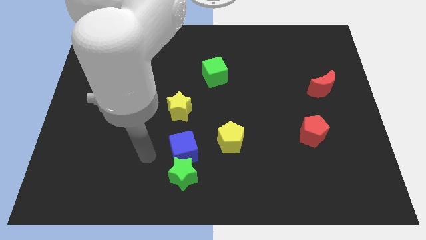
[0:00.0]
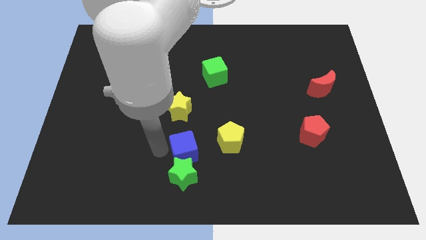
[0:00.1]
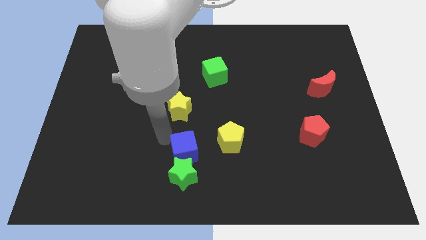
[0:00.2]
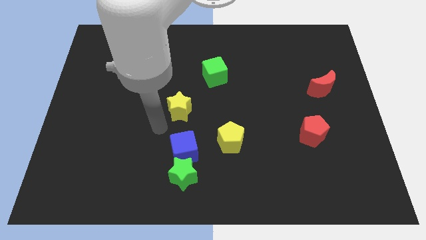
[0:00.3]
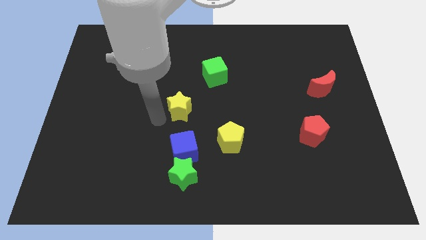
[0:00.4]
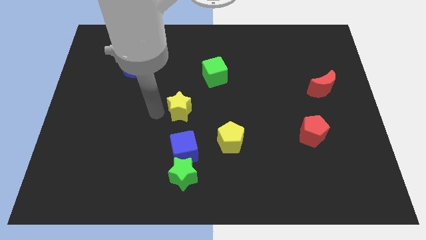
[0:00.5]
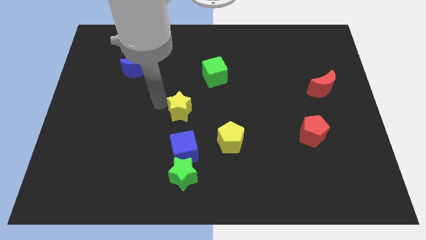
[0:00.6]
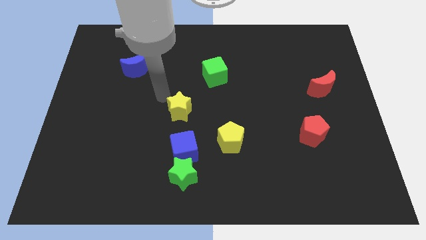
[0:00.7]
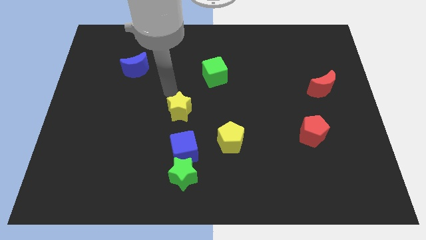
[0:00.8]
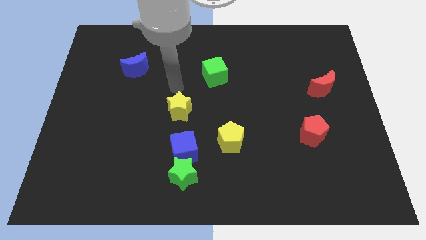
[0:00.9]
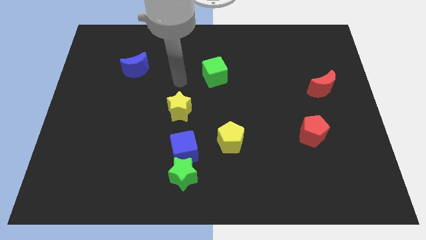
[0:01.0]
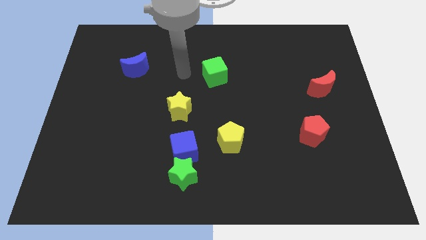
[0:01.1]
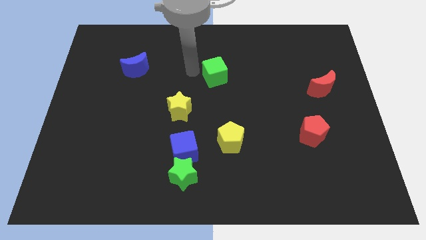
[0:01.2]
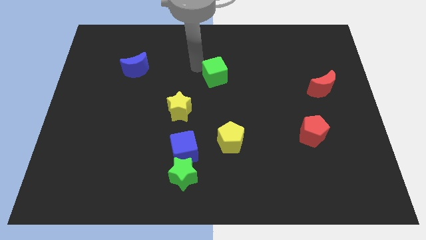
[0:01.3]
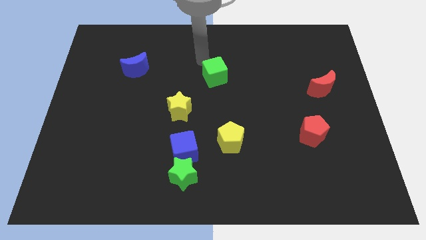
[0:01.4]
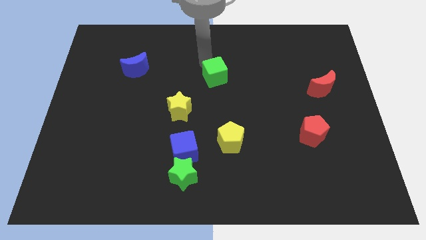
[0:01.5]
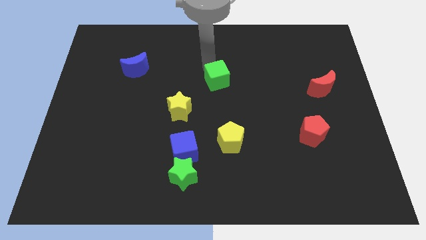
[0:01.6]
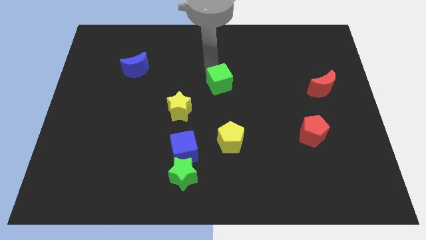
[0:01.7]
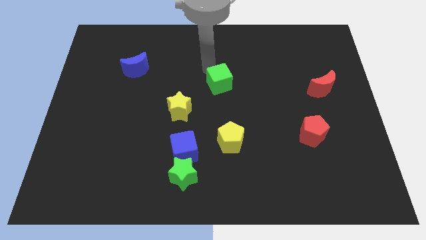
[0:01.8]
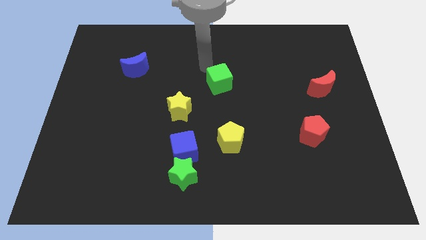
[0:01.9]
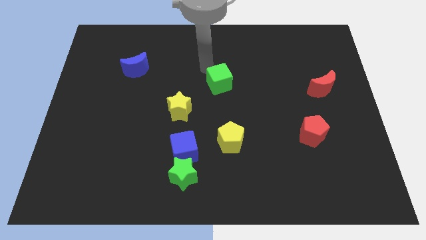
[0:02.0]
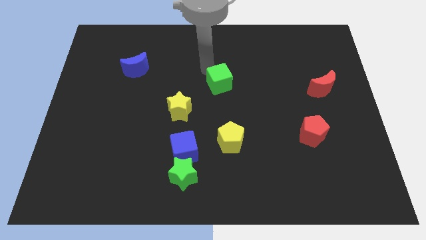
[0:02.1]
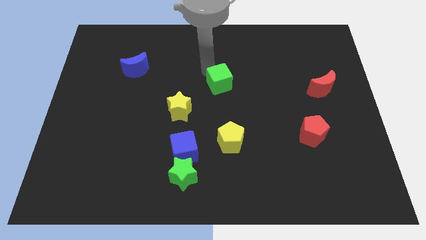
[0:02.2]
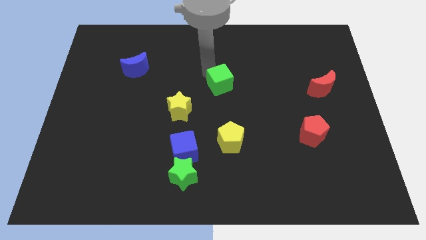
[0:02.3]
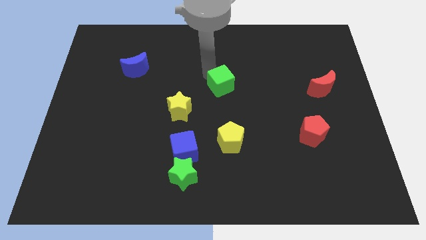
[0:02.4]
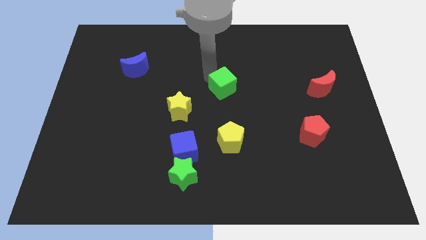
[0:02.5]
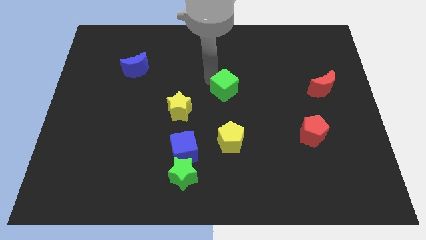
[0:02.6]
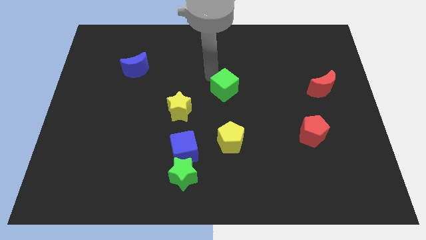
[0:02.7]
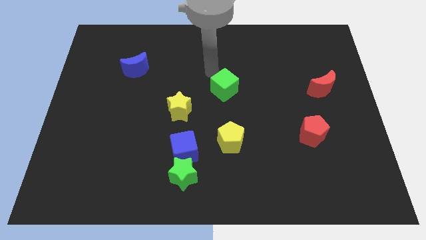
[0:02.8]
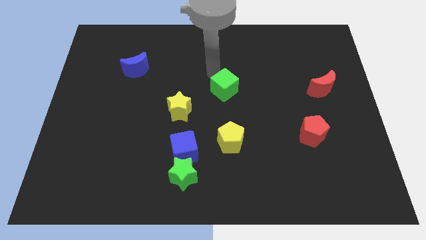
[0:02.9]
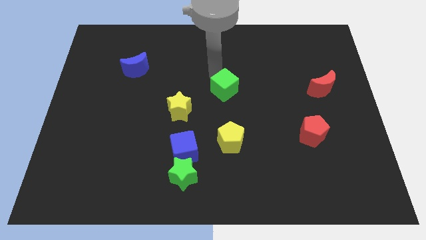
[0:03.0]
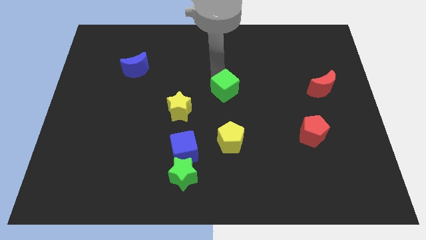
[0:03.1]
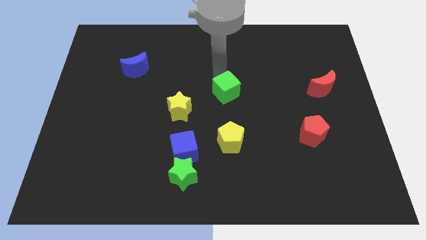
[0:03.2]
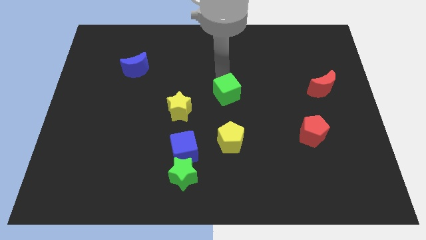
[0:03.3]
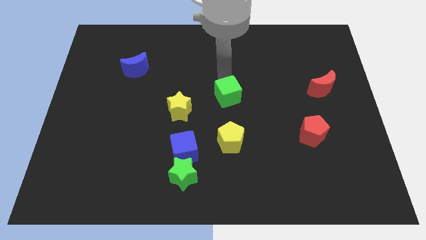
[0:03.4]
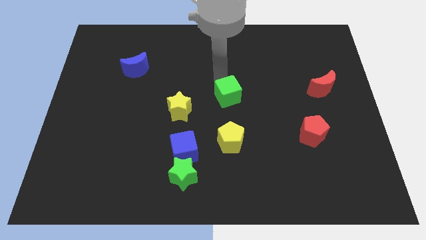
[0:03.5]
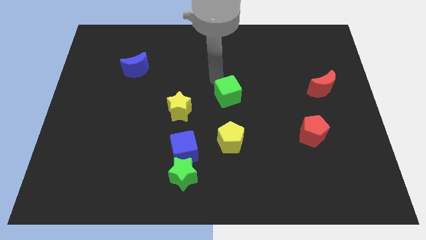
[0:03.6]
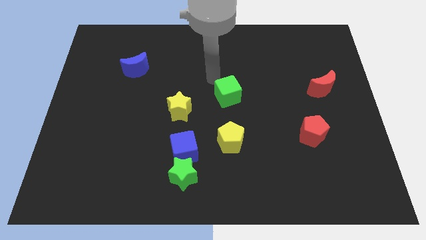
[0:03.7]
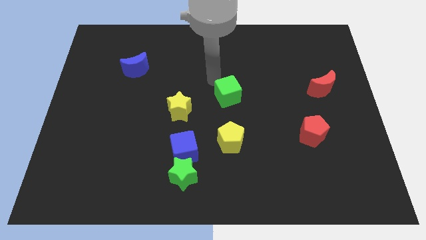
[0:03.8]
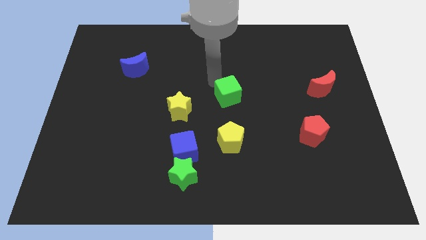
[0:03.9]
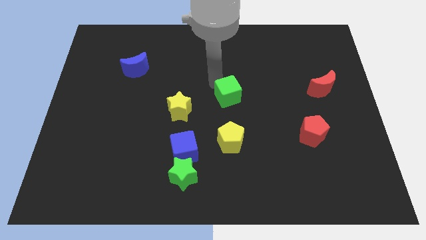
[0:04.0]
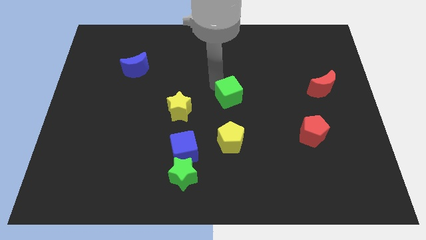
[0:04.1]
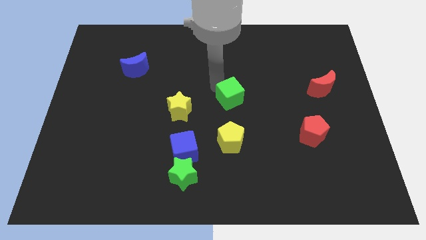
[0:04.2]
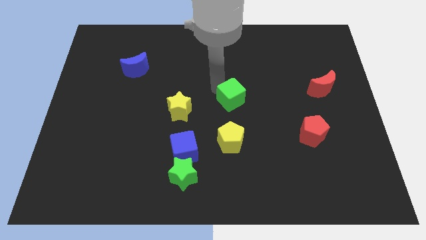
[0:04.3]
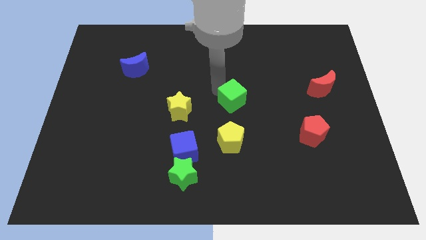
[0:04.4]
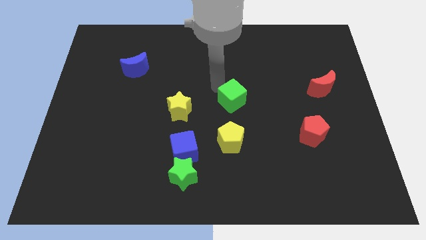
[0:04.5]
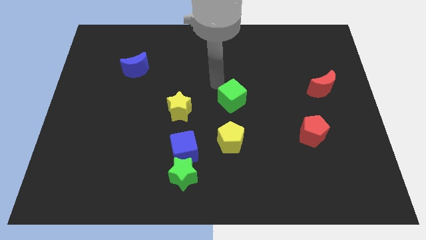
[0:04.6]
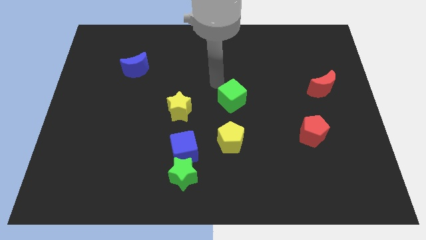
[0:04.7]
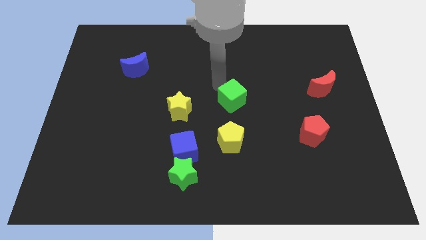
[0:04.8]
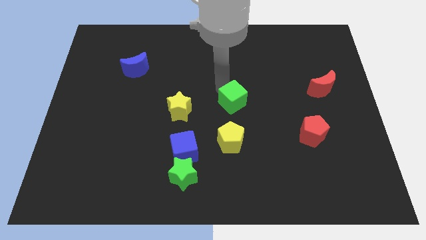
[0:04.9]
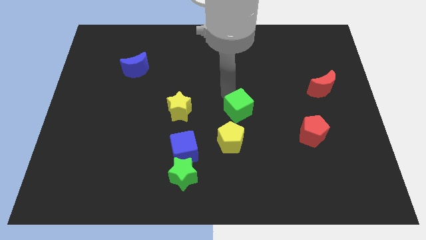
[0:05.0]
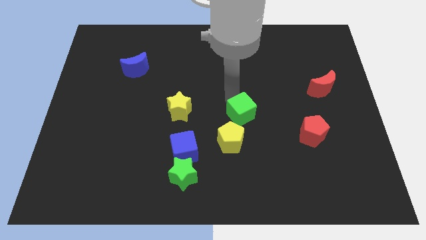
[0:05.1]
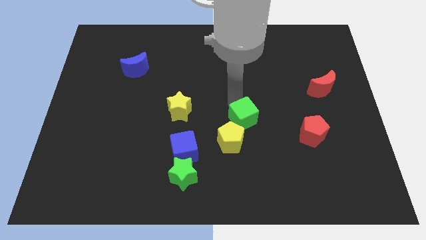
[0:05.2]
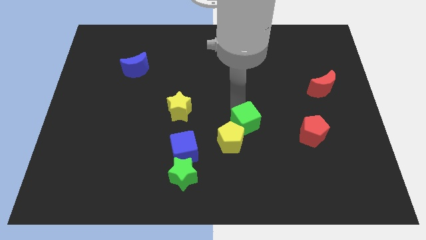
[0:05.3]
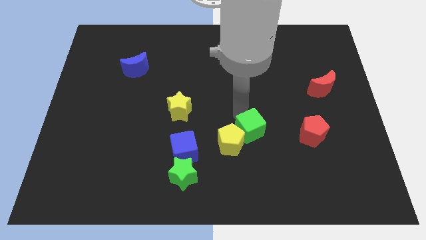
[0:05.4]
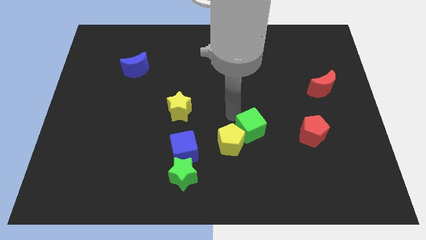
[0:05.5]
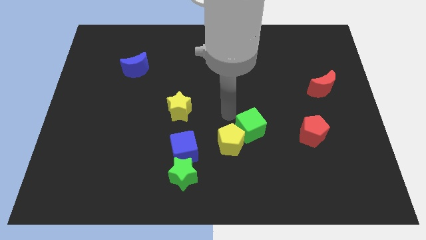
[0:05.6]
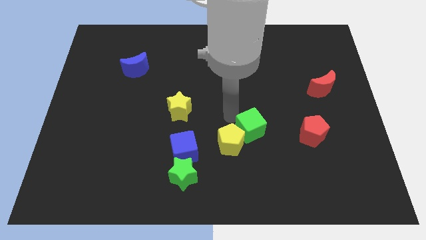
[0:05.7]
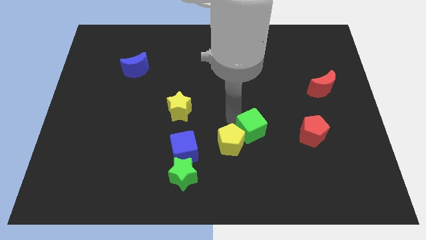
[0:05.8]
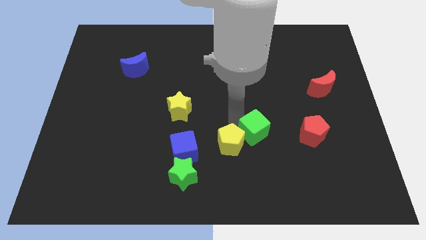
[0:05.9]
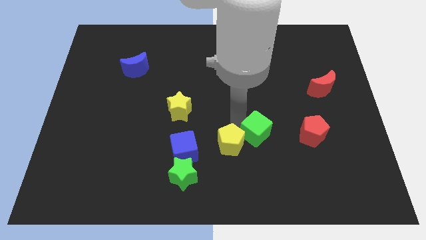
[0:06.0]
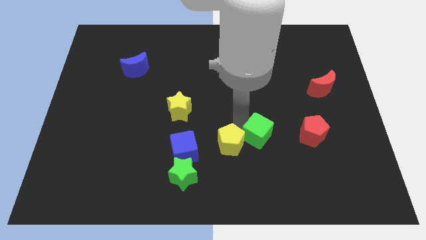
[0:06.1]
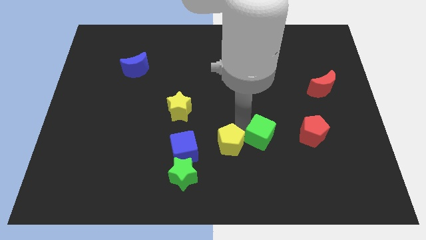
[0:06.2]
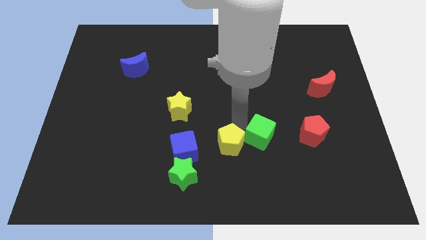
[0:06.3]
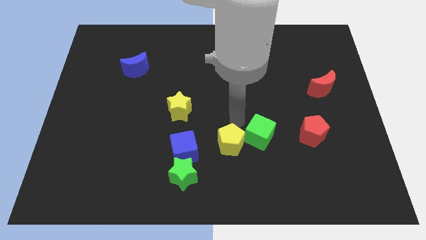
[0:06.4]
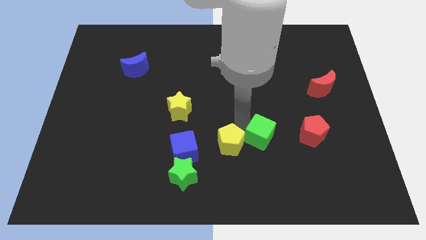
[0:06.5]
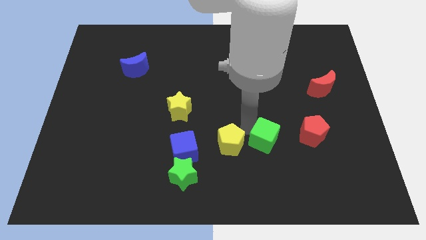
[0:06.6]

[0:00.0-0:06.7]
slide the green cube downwards and right

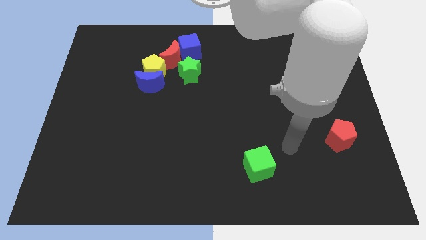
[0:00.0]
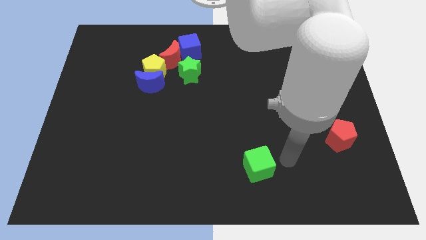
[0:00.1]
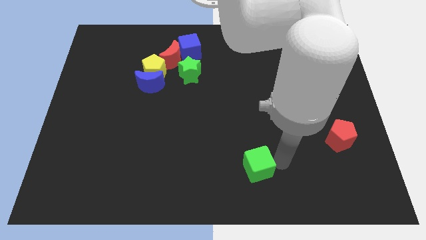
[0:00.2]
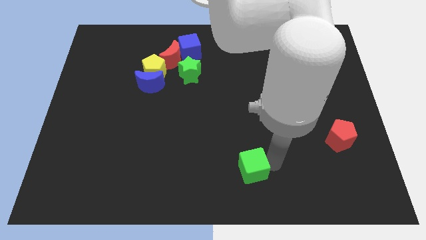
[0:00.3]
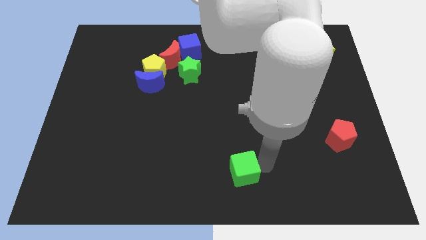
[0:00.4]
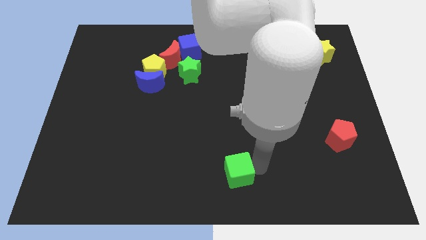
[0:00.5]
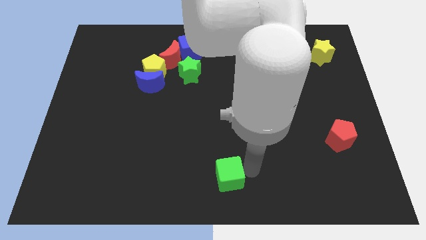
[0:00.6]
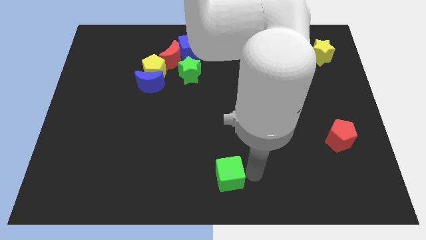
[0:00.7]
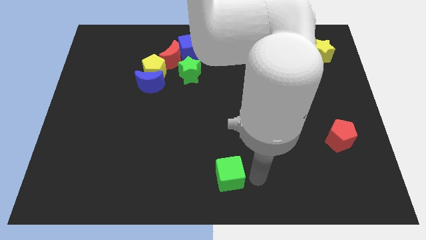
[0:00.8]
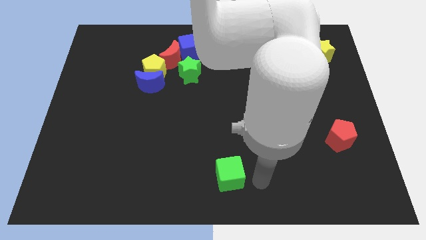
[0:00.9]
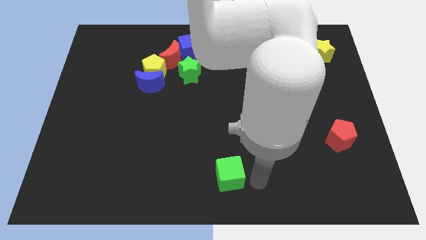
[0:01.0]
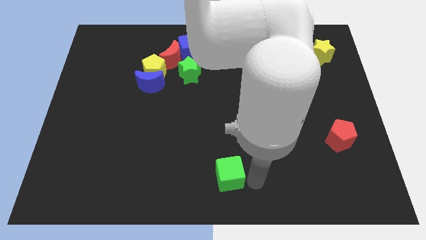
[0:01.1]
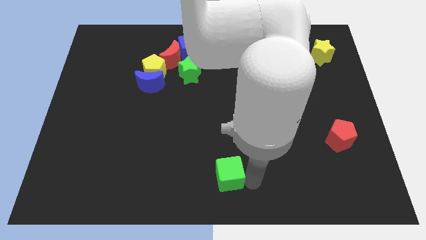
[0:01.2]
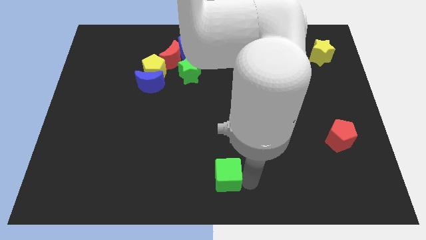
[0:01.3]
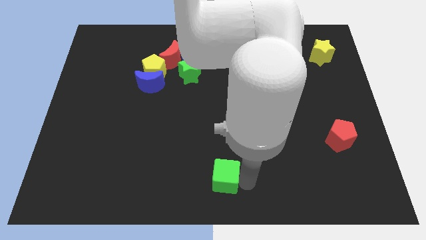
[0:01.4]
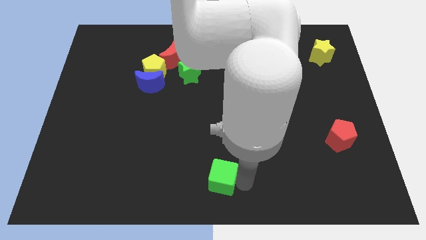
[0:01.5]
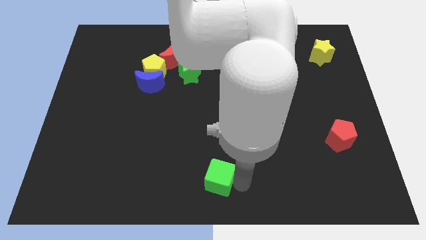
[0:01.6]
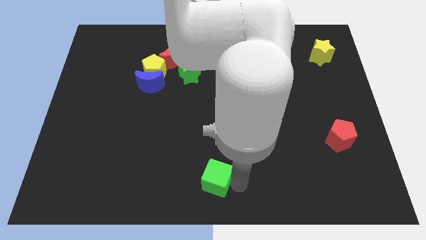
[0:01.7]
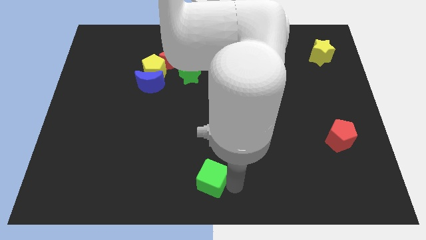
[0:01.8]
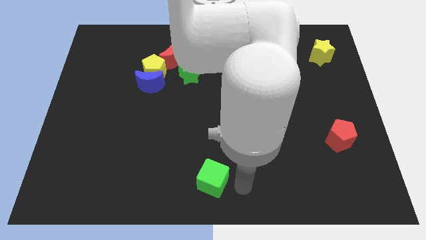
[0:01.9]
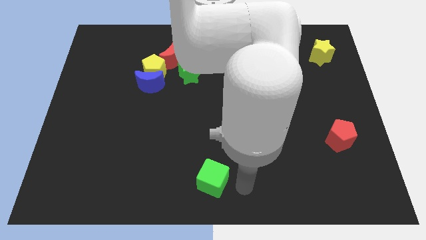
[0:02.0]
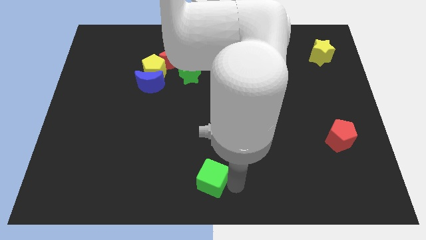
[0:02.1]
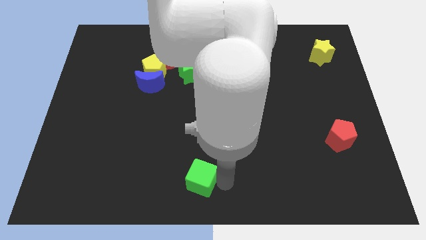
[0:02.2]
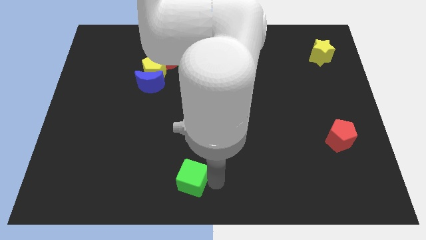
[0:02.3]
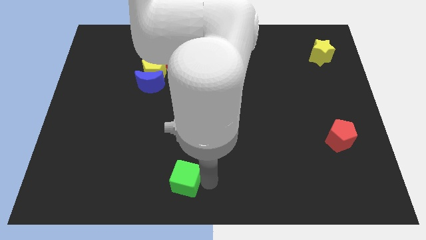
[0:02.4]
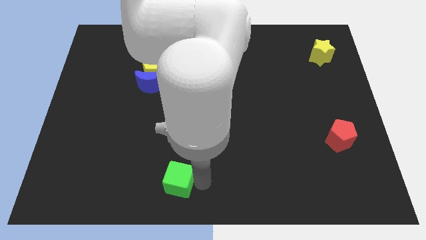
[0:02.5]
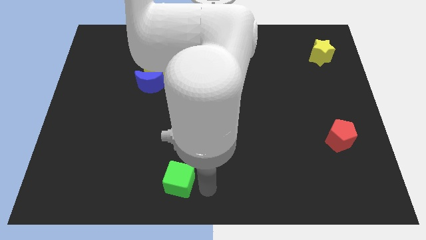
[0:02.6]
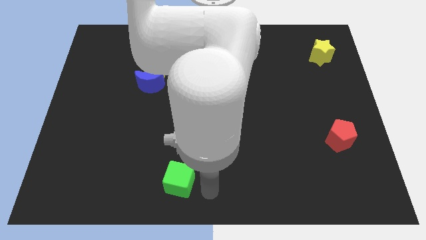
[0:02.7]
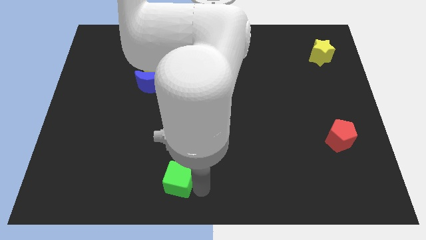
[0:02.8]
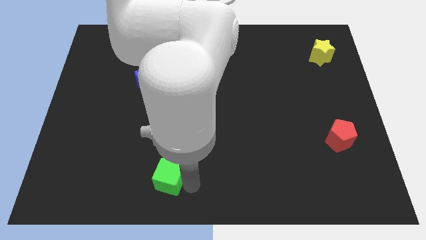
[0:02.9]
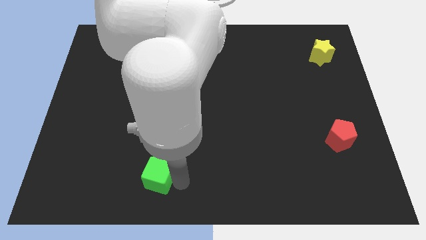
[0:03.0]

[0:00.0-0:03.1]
push the green cube left
